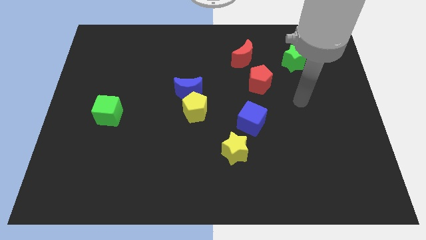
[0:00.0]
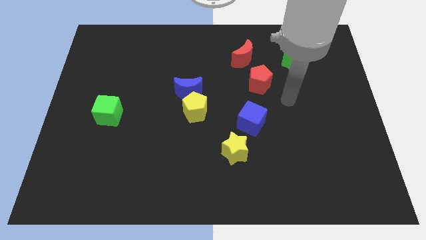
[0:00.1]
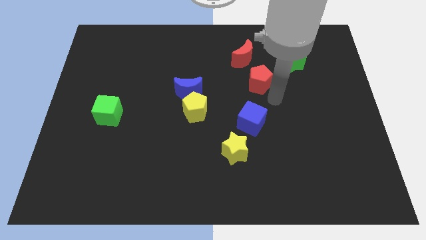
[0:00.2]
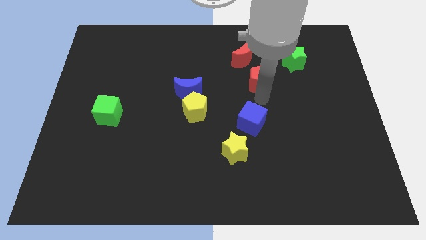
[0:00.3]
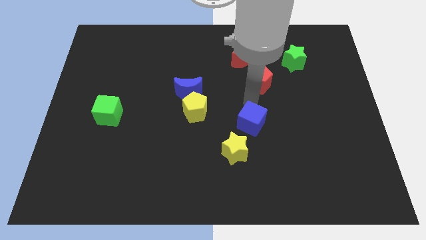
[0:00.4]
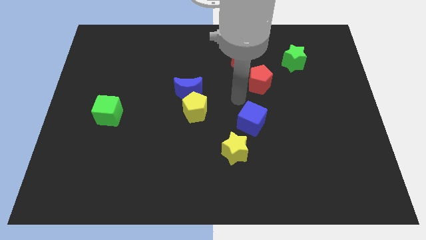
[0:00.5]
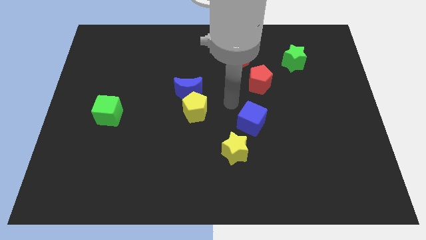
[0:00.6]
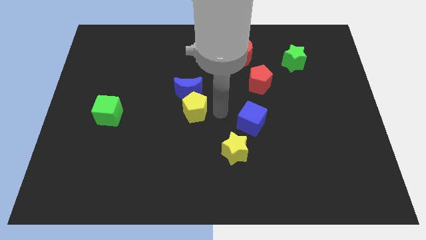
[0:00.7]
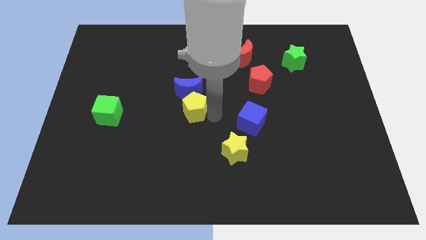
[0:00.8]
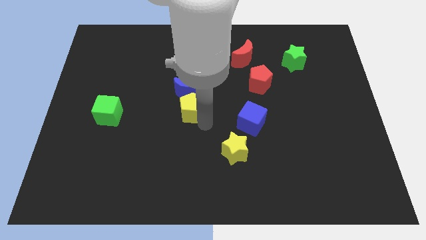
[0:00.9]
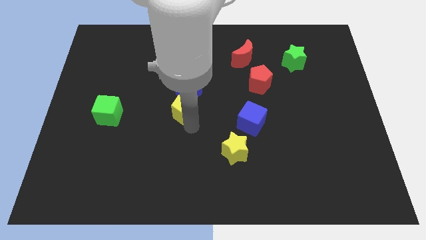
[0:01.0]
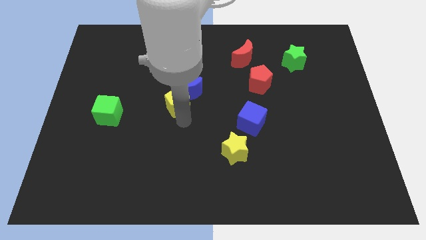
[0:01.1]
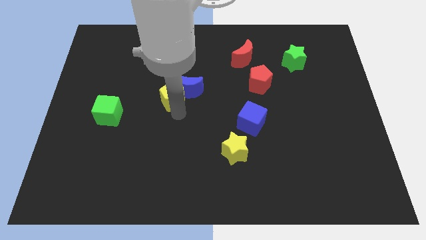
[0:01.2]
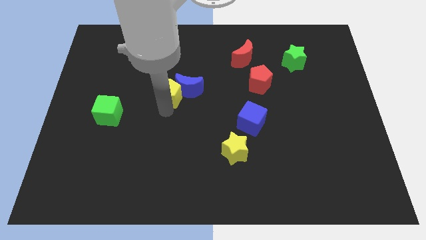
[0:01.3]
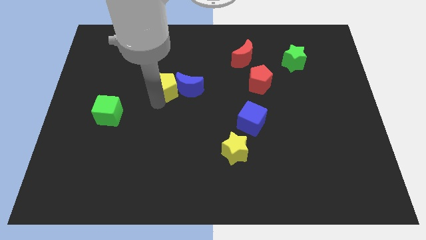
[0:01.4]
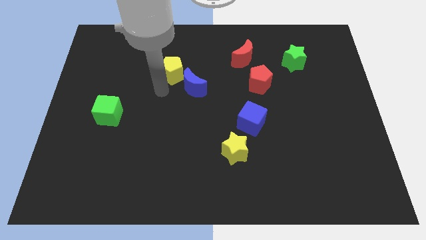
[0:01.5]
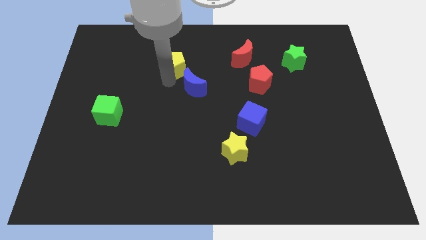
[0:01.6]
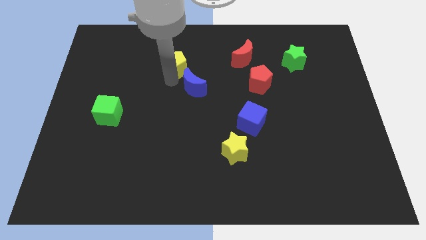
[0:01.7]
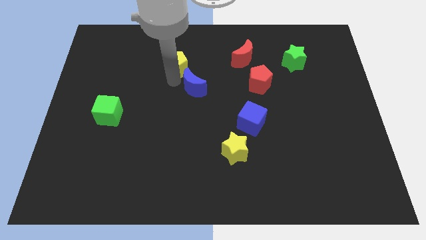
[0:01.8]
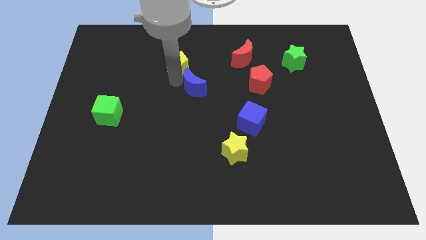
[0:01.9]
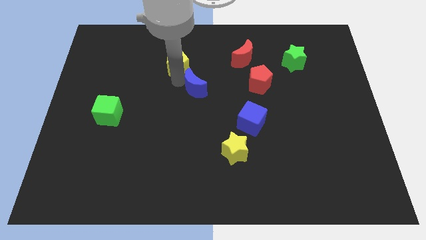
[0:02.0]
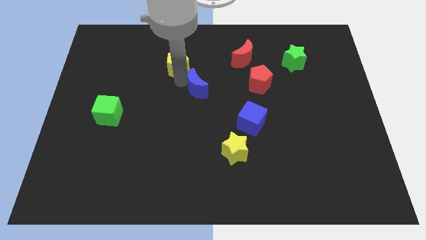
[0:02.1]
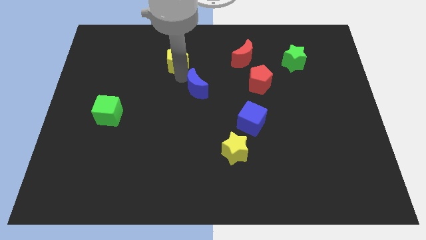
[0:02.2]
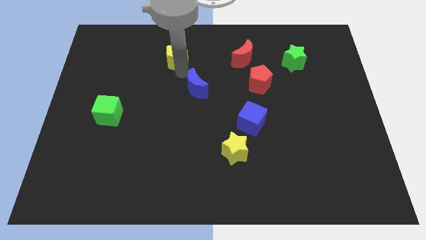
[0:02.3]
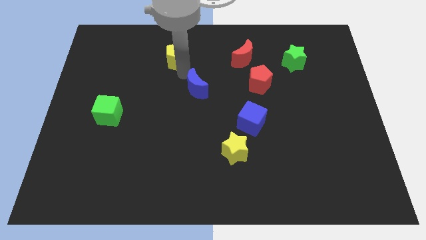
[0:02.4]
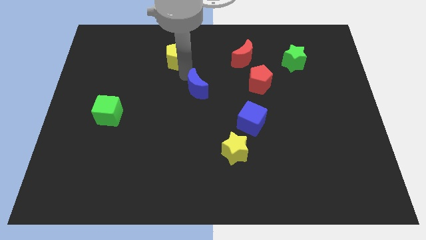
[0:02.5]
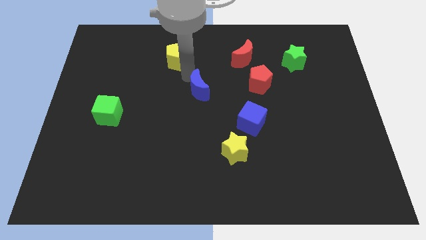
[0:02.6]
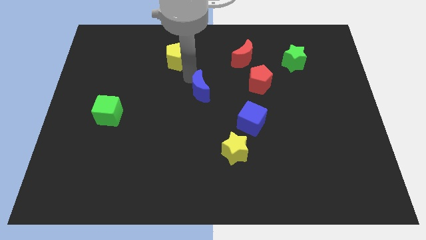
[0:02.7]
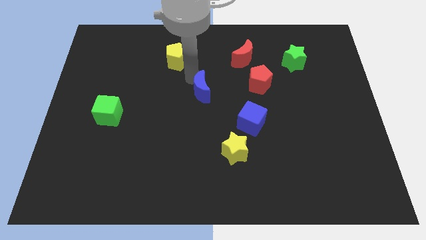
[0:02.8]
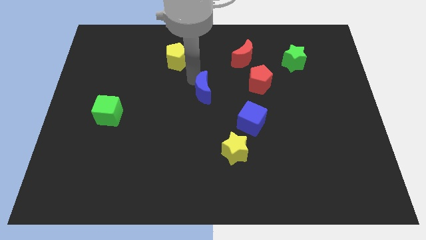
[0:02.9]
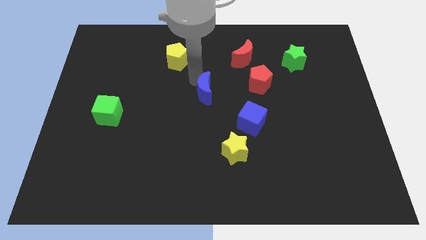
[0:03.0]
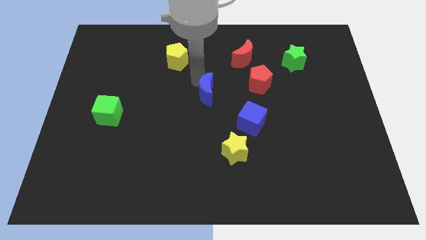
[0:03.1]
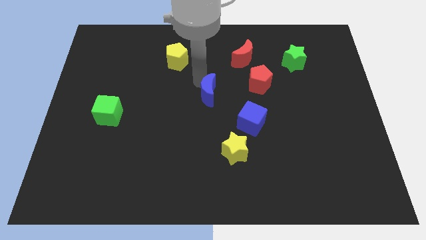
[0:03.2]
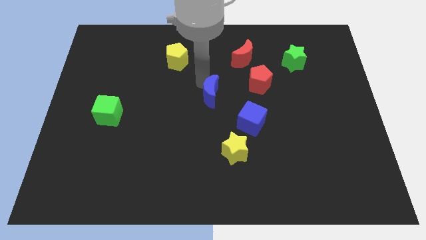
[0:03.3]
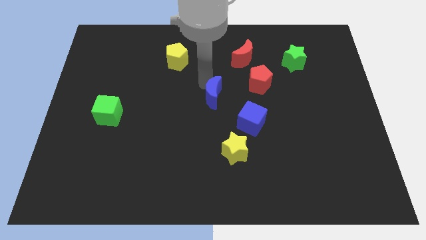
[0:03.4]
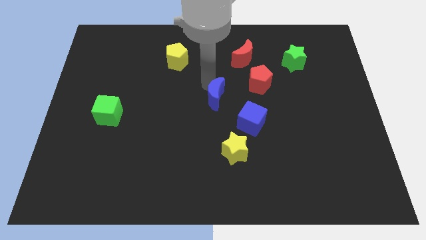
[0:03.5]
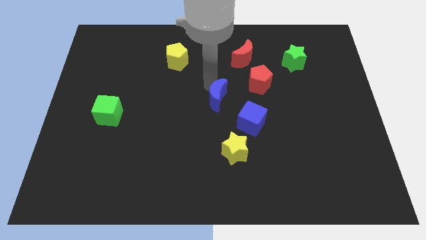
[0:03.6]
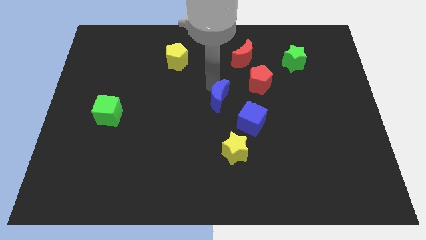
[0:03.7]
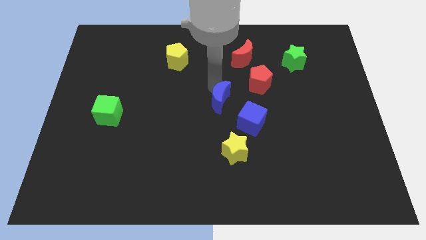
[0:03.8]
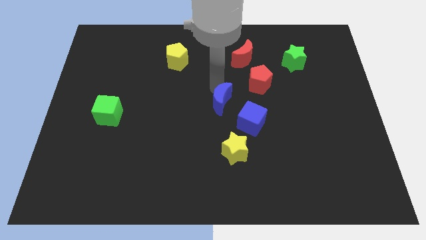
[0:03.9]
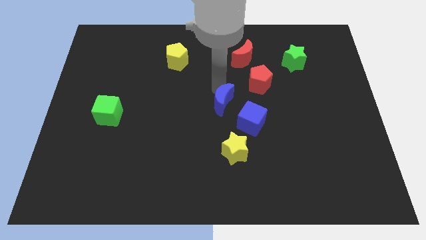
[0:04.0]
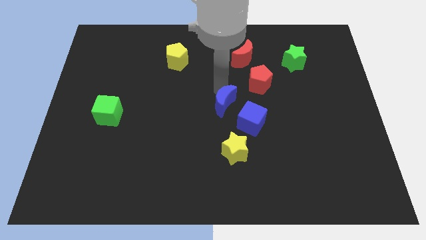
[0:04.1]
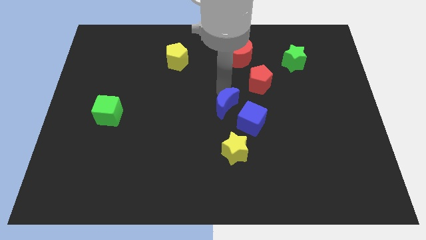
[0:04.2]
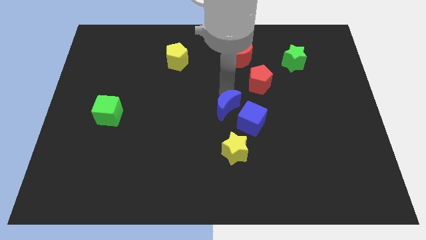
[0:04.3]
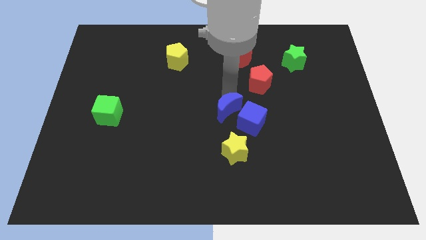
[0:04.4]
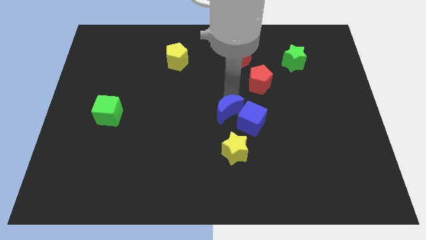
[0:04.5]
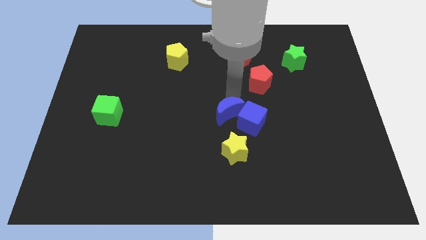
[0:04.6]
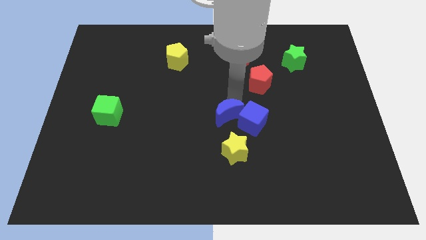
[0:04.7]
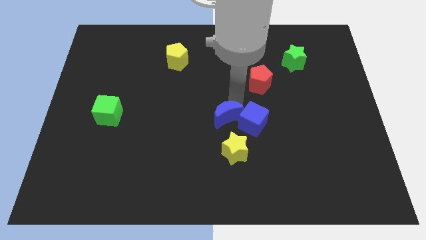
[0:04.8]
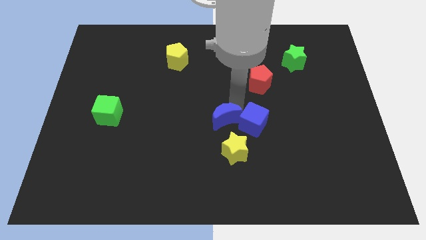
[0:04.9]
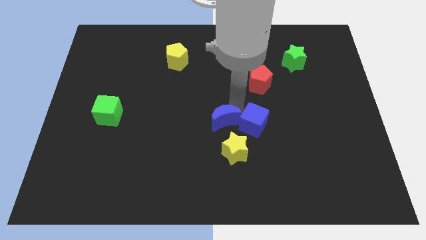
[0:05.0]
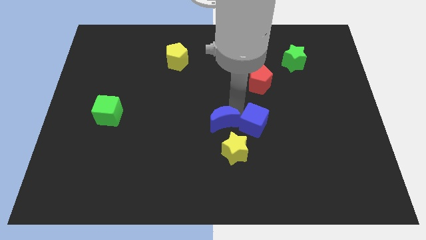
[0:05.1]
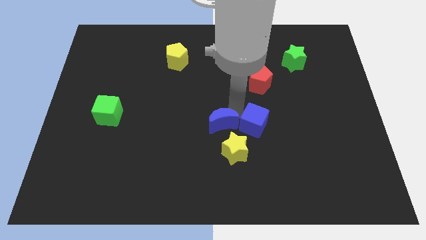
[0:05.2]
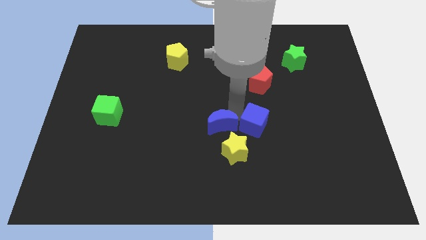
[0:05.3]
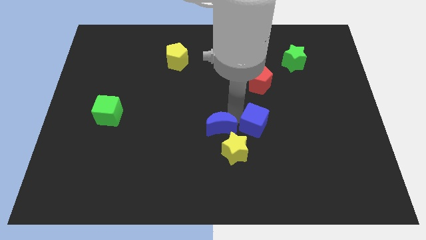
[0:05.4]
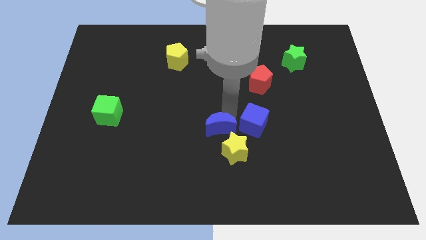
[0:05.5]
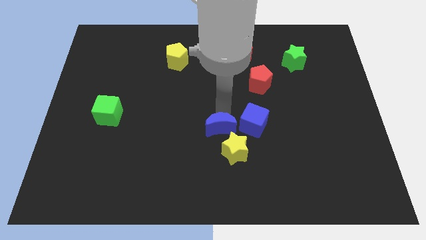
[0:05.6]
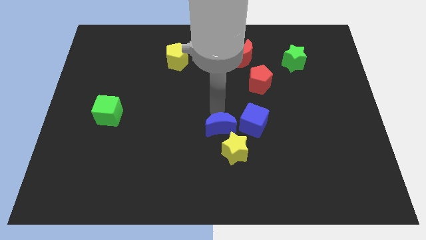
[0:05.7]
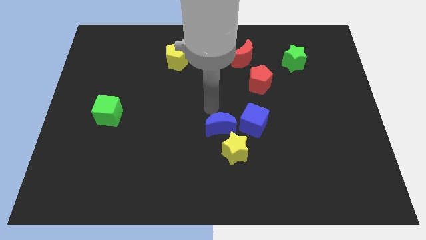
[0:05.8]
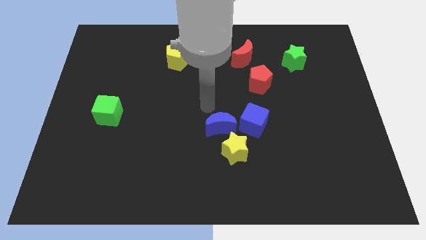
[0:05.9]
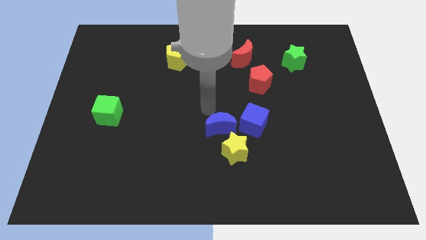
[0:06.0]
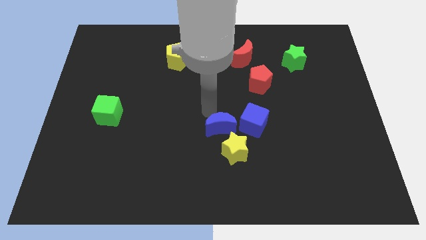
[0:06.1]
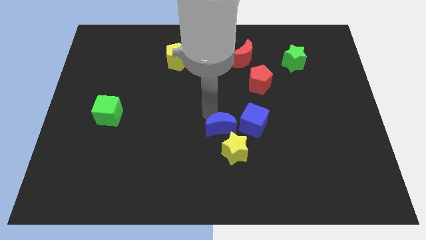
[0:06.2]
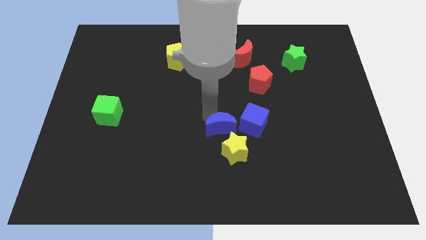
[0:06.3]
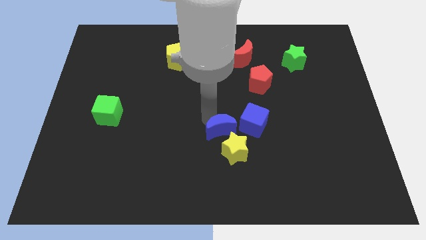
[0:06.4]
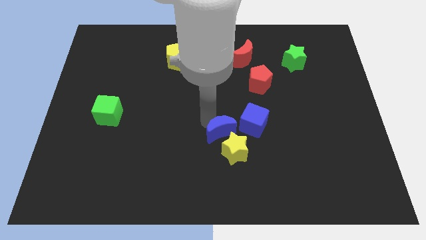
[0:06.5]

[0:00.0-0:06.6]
put the blue moon to the yellow star

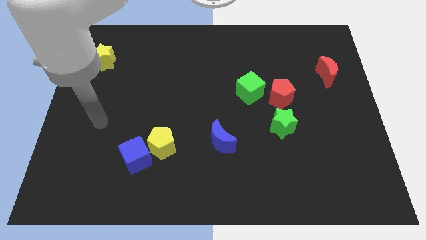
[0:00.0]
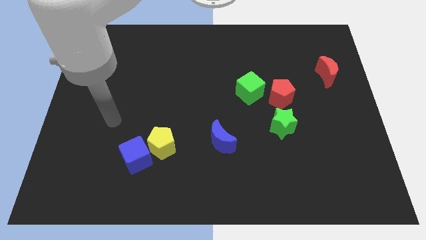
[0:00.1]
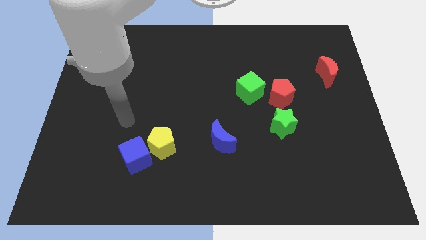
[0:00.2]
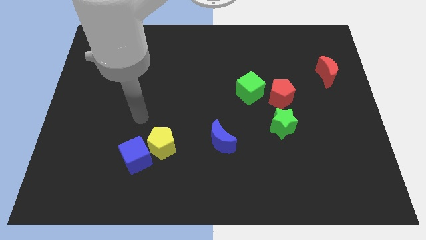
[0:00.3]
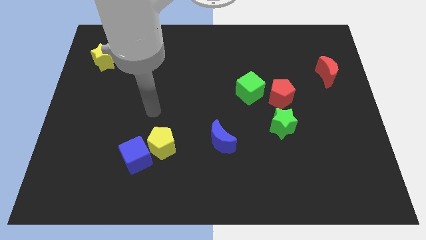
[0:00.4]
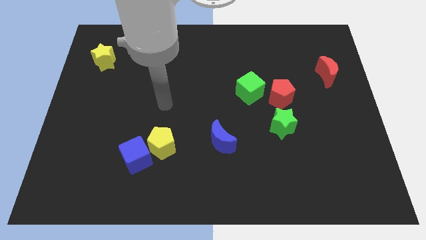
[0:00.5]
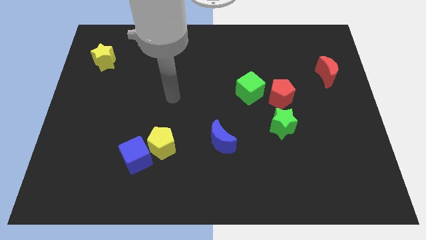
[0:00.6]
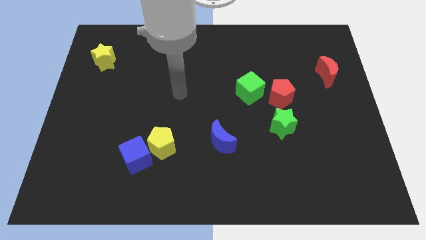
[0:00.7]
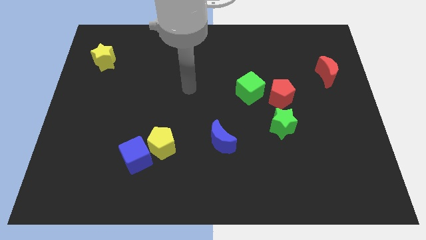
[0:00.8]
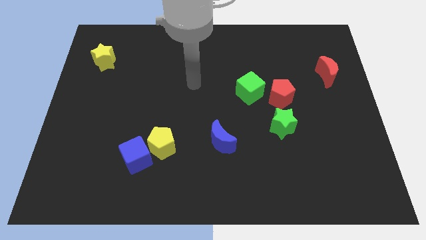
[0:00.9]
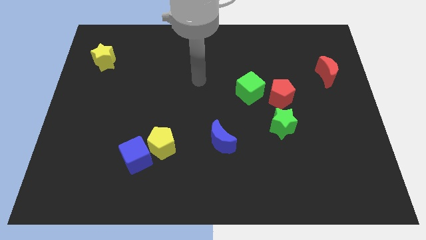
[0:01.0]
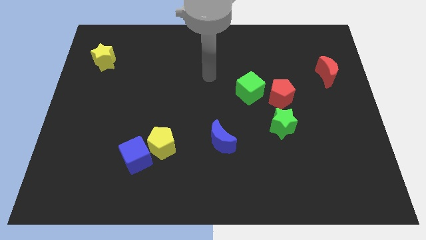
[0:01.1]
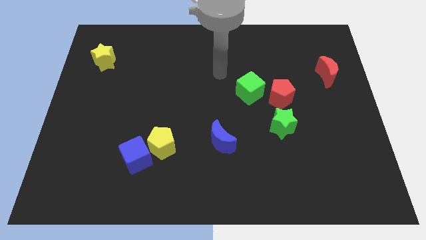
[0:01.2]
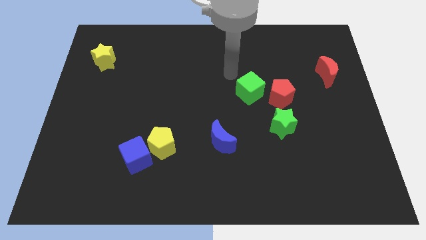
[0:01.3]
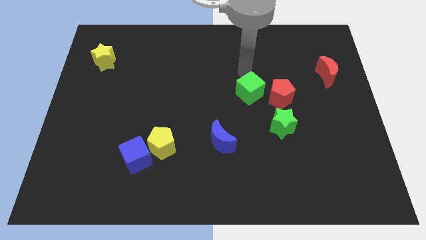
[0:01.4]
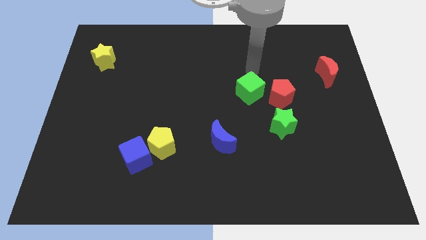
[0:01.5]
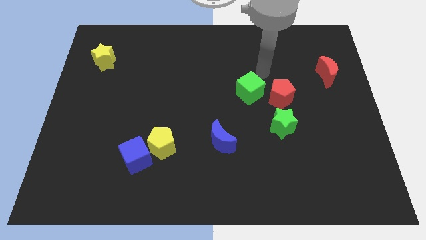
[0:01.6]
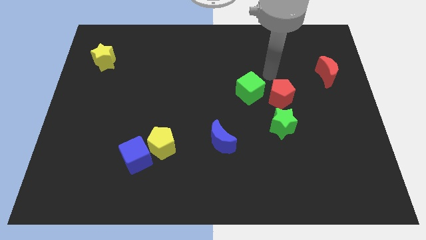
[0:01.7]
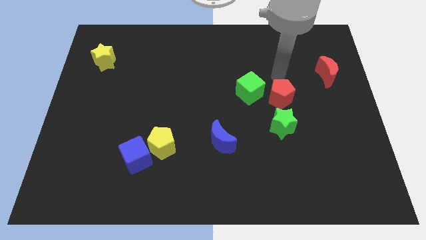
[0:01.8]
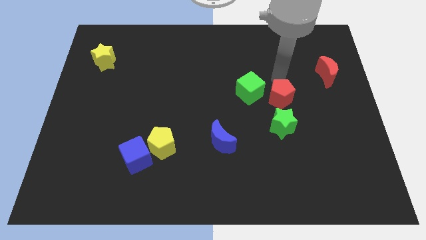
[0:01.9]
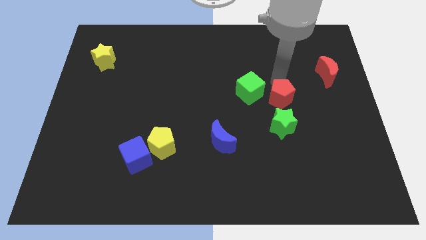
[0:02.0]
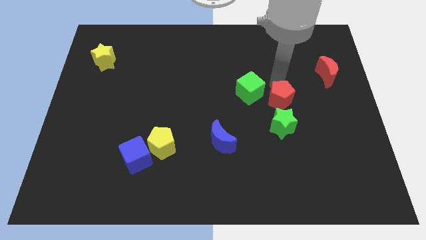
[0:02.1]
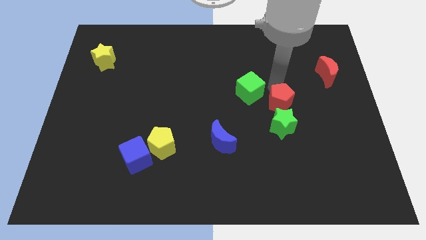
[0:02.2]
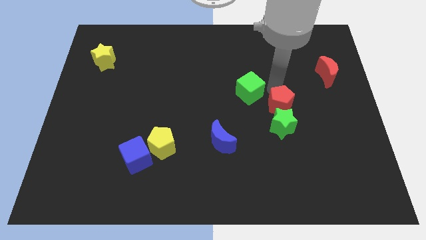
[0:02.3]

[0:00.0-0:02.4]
move the red pentagon to the green star
